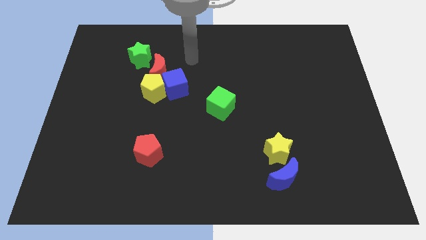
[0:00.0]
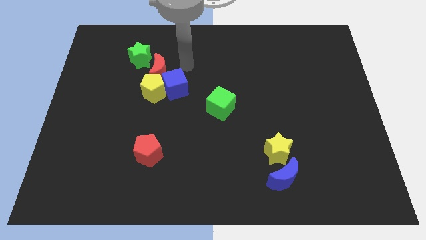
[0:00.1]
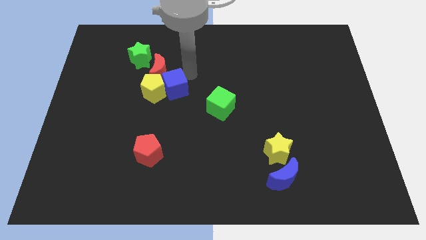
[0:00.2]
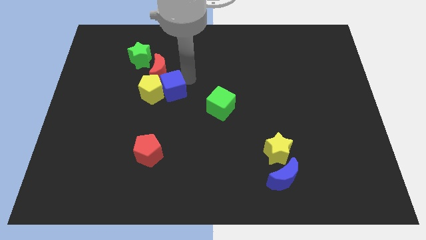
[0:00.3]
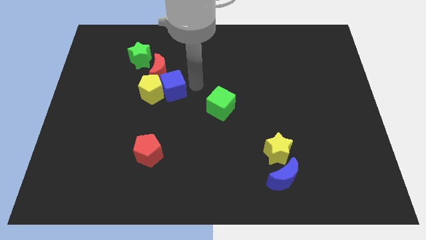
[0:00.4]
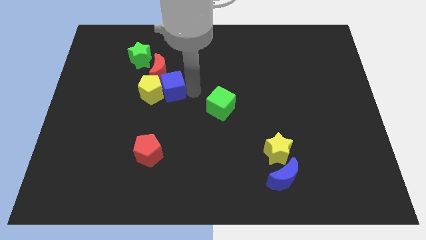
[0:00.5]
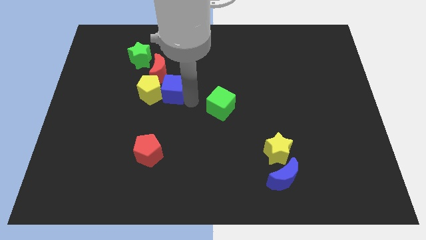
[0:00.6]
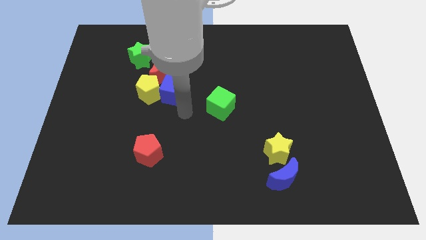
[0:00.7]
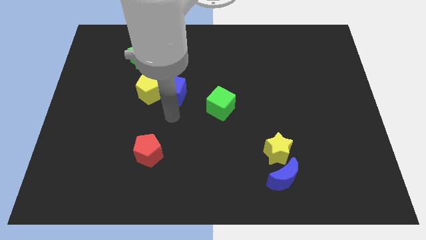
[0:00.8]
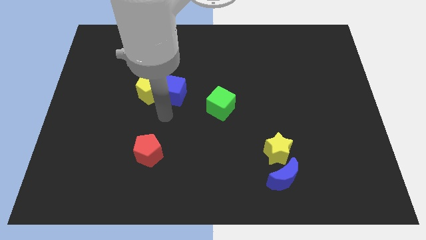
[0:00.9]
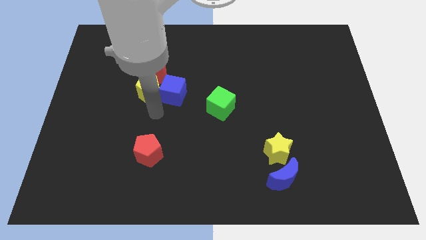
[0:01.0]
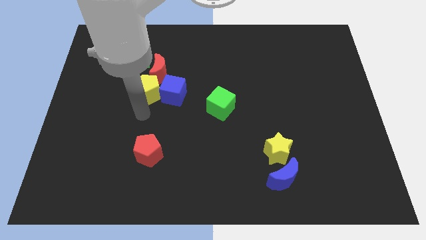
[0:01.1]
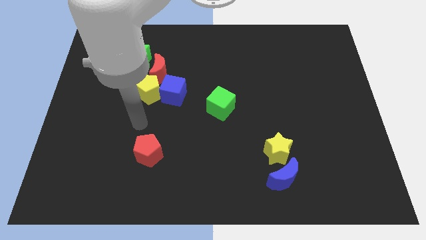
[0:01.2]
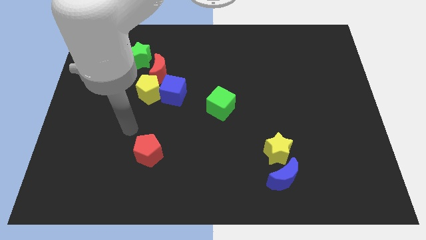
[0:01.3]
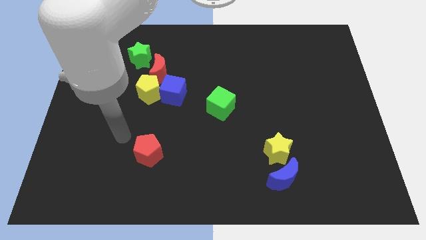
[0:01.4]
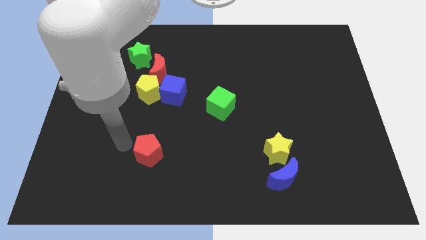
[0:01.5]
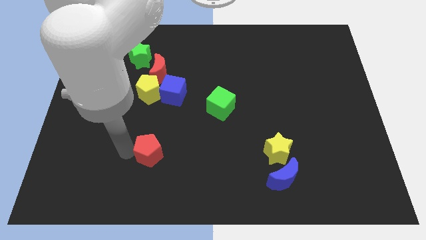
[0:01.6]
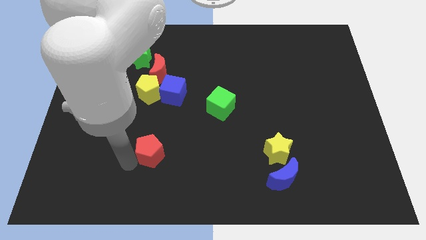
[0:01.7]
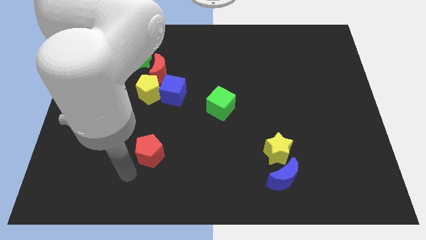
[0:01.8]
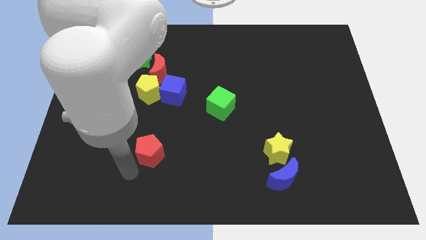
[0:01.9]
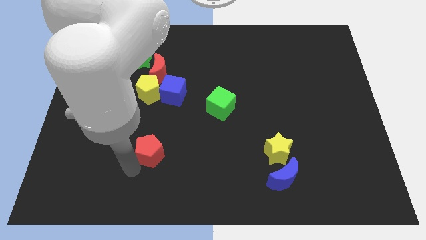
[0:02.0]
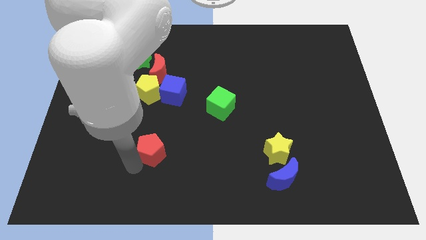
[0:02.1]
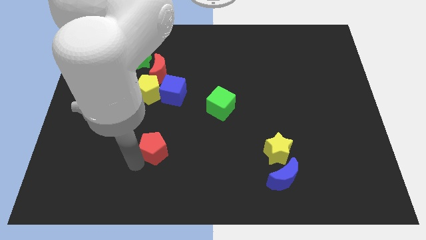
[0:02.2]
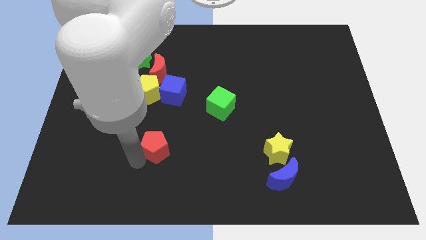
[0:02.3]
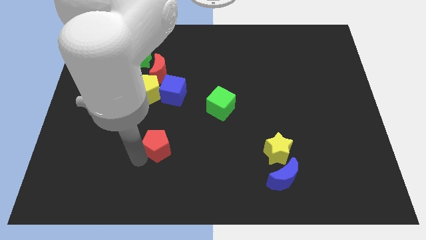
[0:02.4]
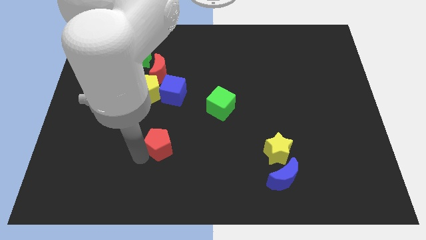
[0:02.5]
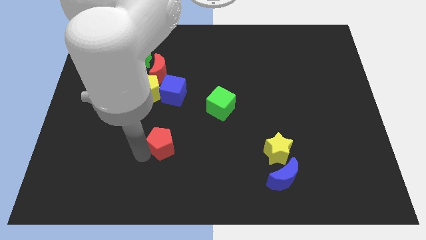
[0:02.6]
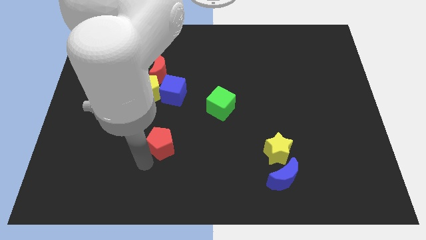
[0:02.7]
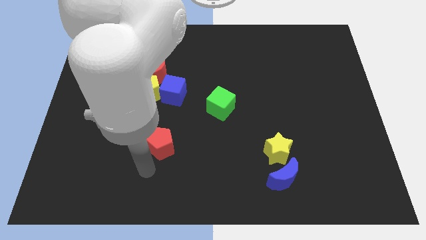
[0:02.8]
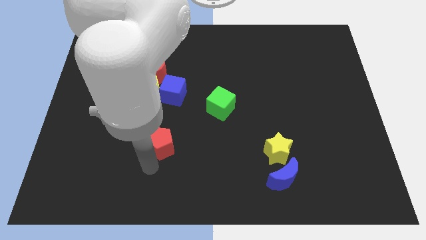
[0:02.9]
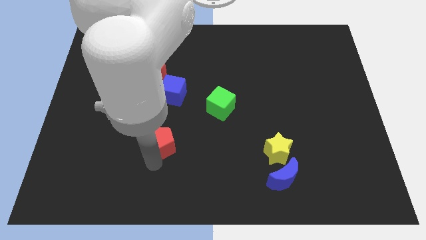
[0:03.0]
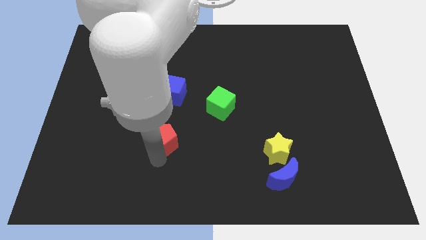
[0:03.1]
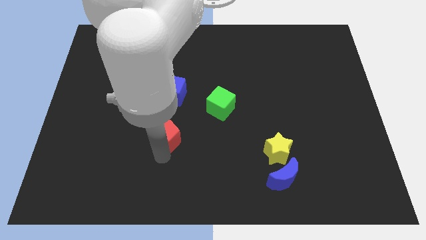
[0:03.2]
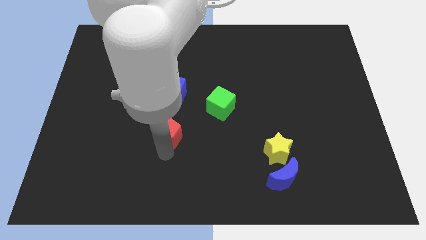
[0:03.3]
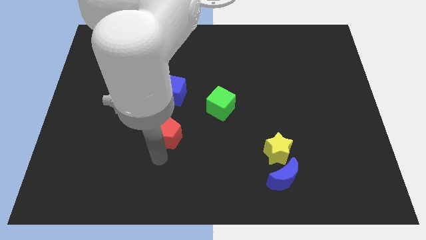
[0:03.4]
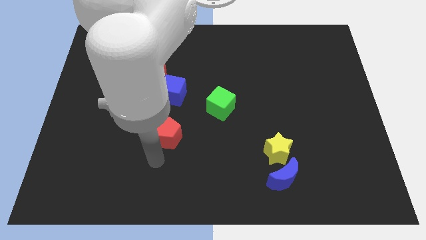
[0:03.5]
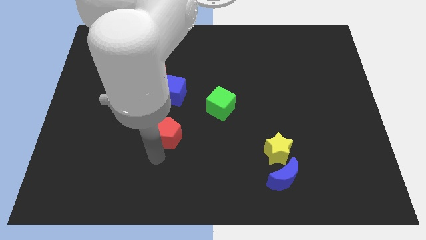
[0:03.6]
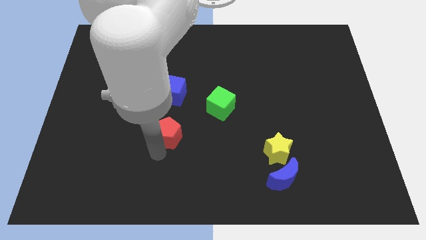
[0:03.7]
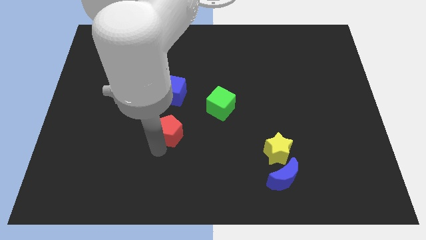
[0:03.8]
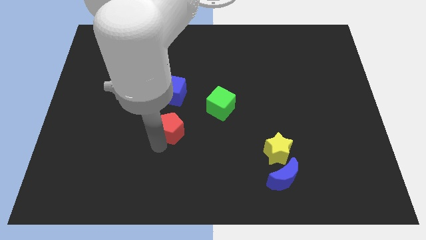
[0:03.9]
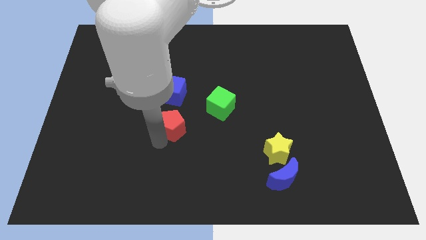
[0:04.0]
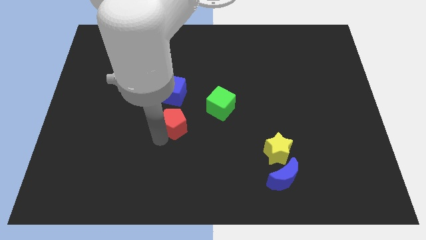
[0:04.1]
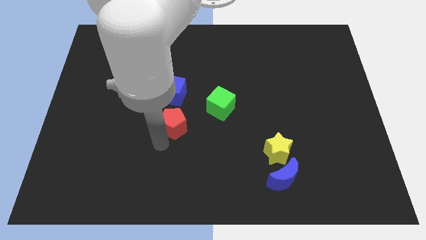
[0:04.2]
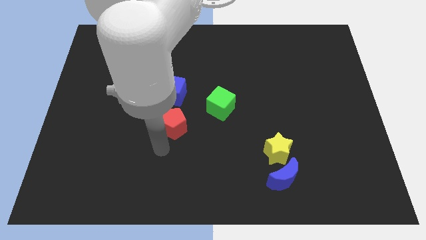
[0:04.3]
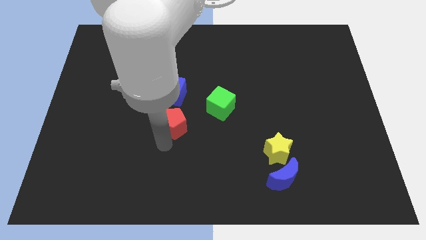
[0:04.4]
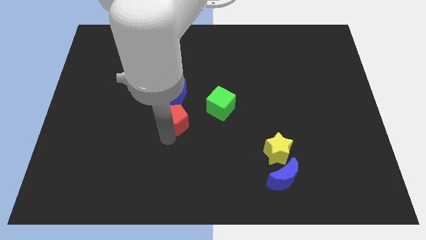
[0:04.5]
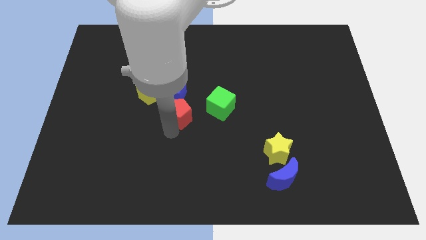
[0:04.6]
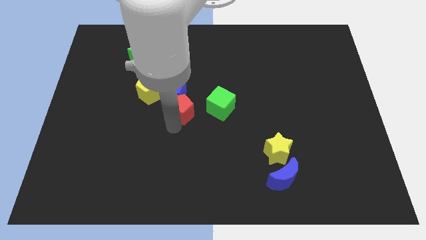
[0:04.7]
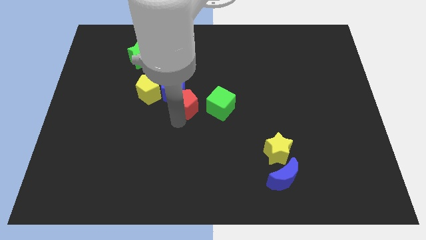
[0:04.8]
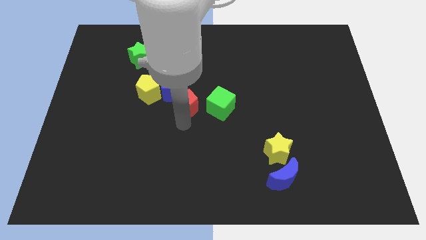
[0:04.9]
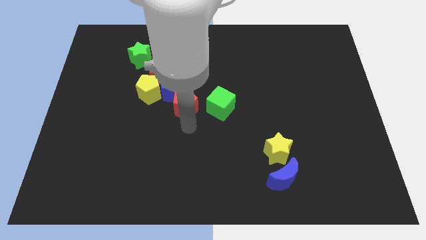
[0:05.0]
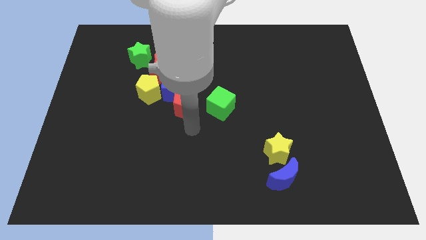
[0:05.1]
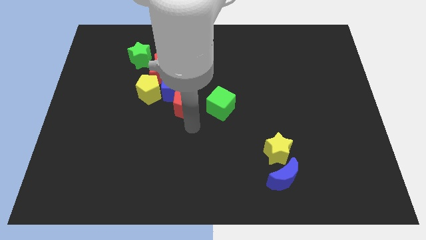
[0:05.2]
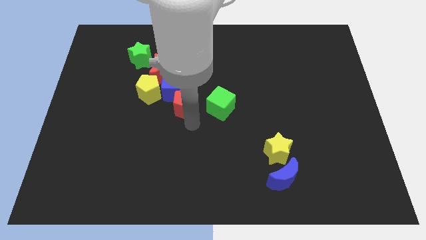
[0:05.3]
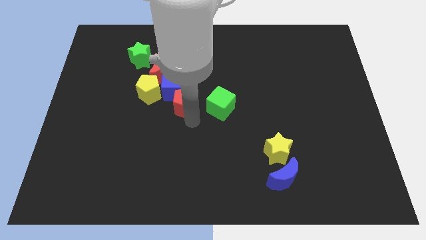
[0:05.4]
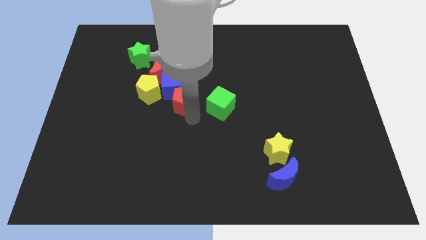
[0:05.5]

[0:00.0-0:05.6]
slide the red pentagon to the bottom right of the red moon

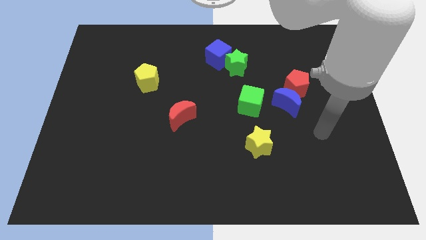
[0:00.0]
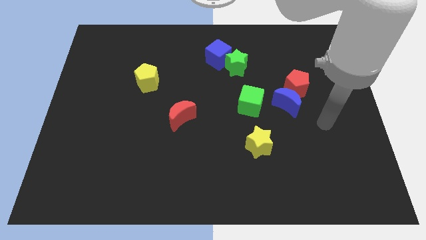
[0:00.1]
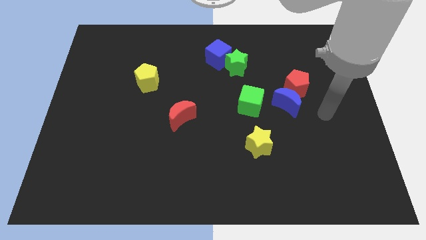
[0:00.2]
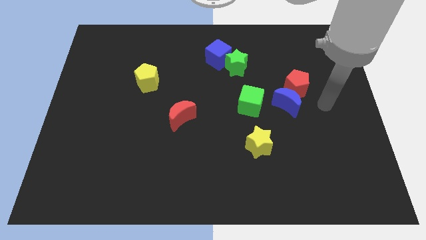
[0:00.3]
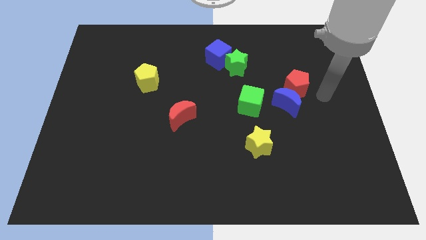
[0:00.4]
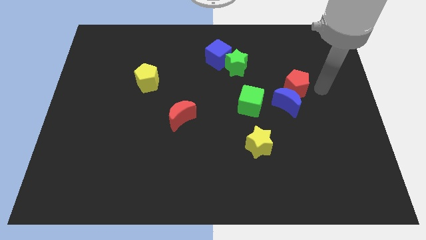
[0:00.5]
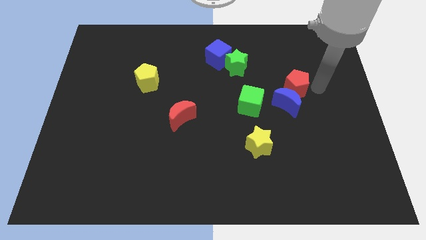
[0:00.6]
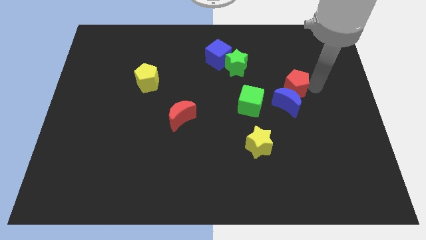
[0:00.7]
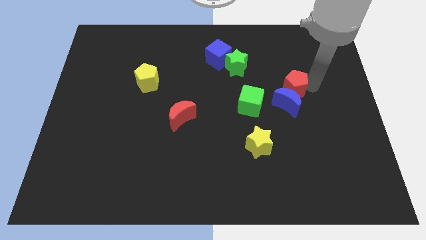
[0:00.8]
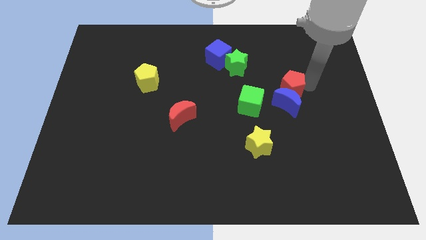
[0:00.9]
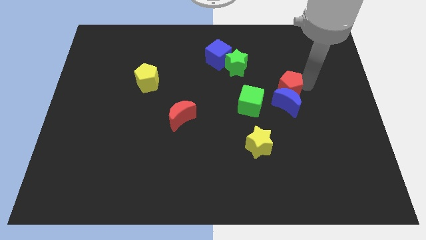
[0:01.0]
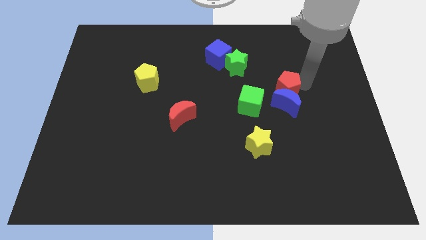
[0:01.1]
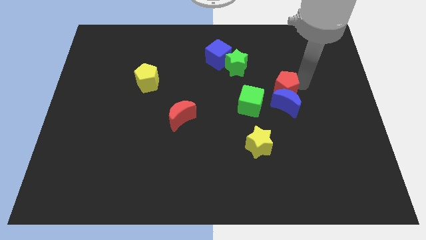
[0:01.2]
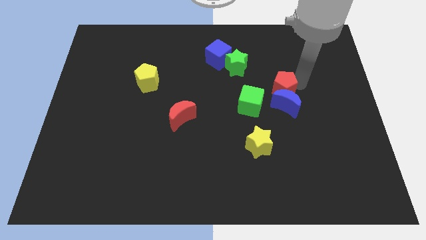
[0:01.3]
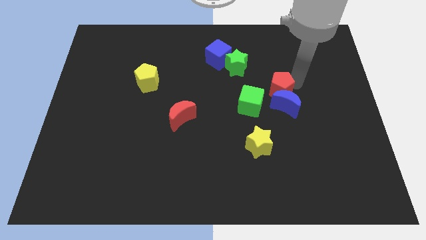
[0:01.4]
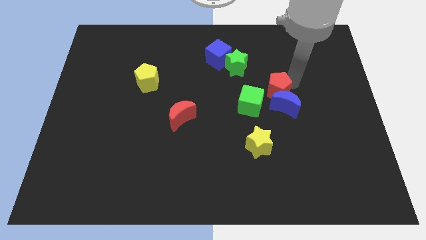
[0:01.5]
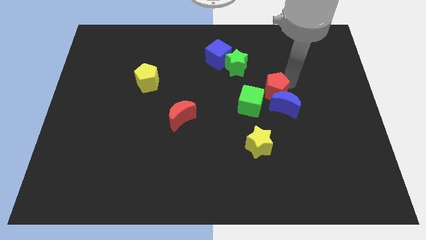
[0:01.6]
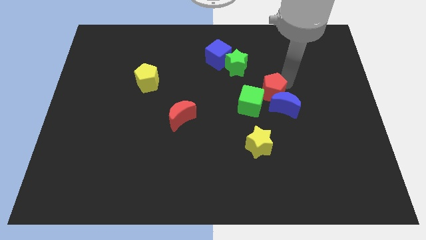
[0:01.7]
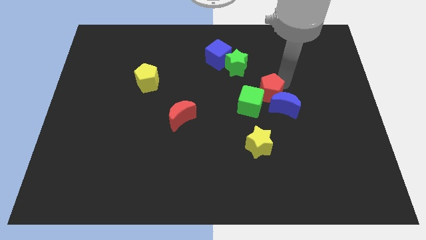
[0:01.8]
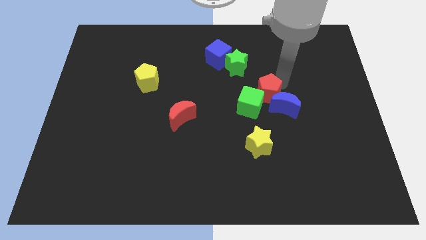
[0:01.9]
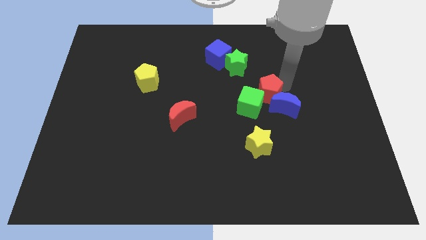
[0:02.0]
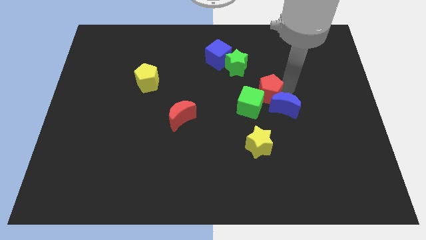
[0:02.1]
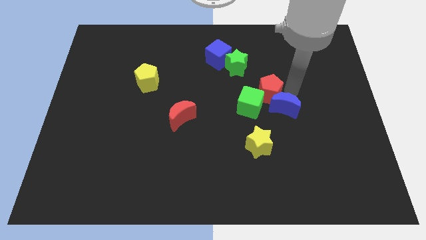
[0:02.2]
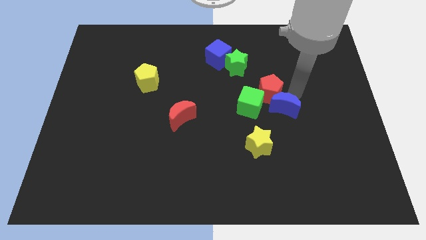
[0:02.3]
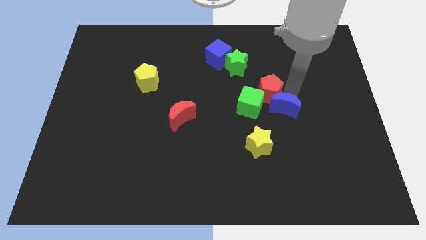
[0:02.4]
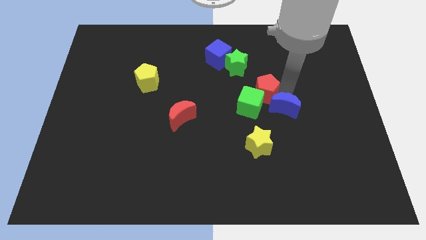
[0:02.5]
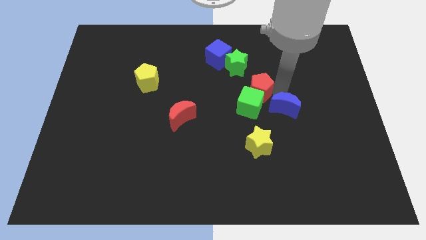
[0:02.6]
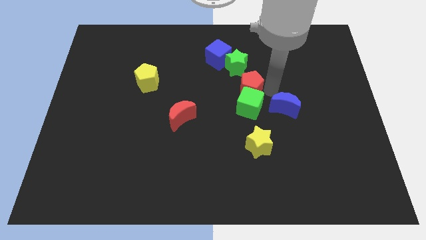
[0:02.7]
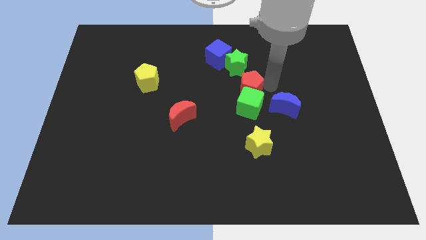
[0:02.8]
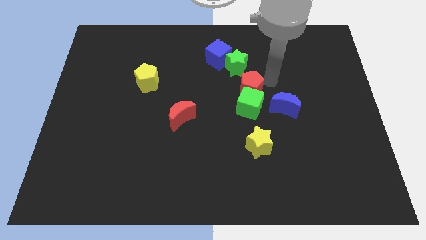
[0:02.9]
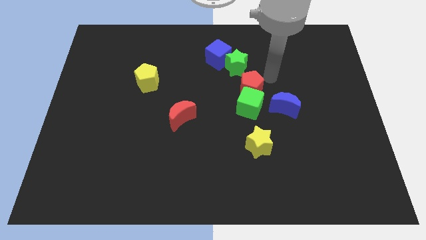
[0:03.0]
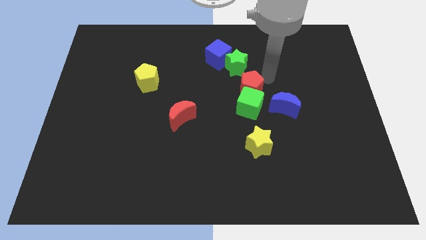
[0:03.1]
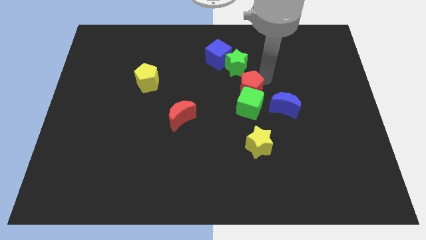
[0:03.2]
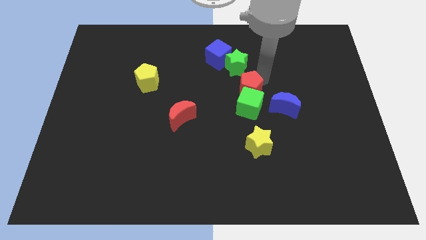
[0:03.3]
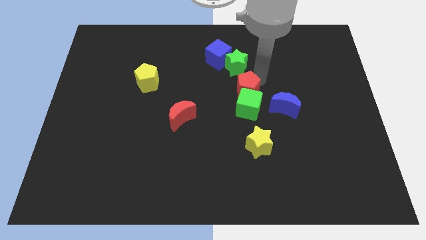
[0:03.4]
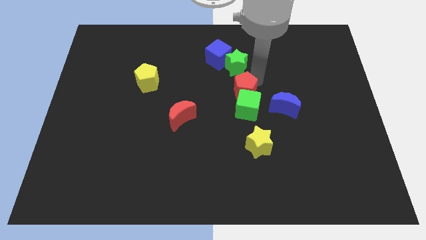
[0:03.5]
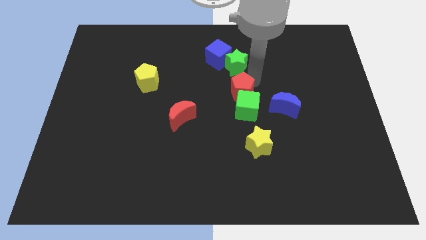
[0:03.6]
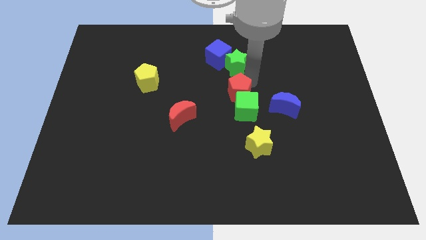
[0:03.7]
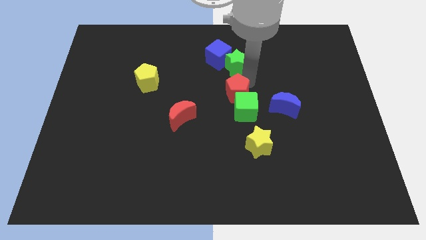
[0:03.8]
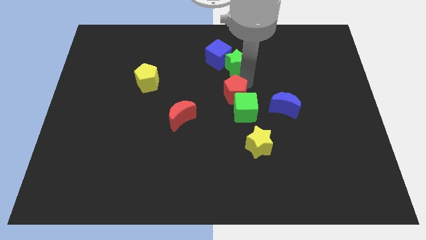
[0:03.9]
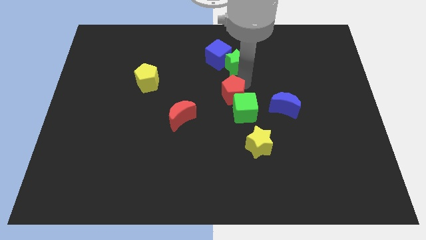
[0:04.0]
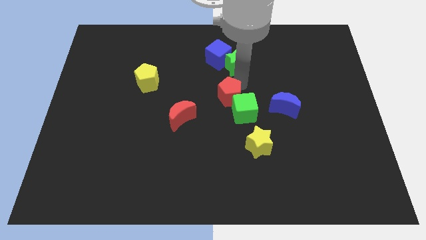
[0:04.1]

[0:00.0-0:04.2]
slide the red pentagon to the left of the green cube
